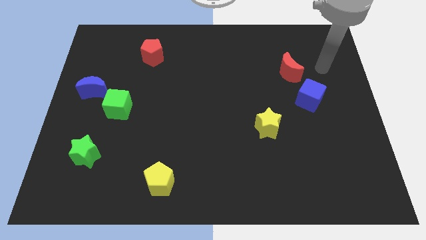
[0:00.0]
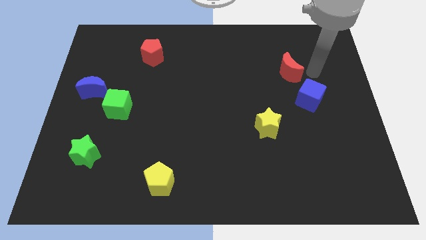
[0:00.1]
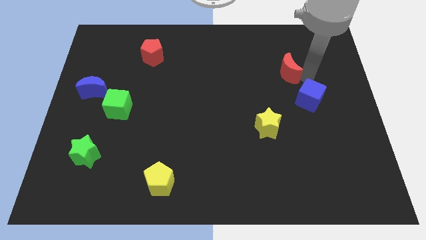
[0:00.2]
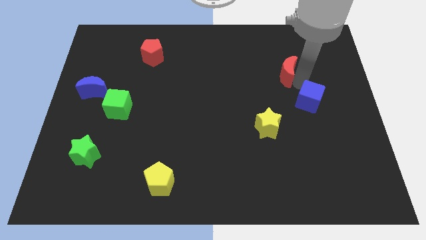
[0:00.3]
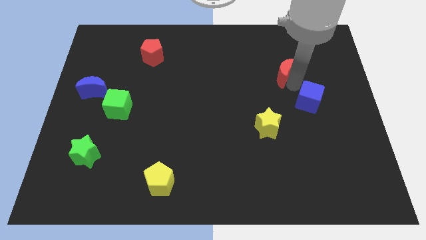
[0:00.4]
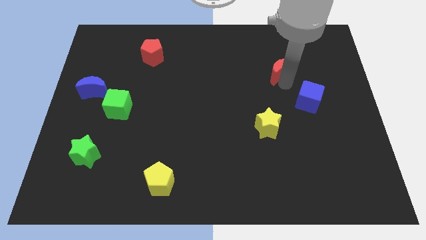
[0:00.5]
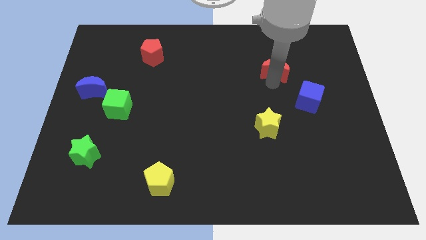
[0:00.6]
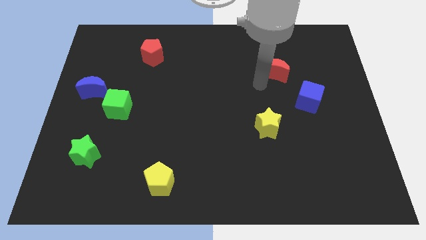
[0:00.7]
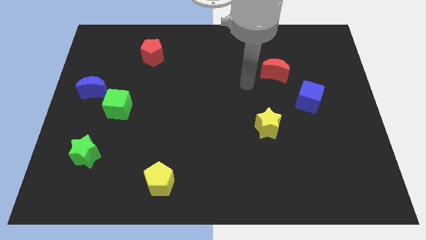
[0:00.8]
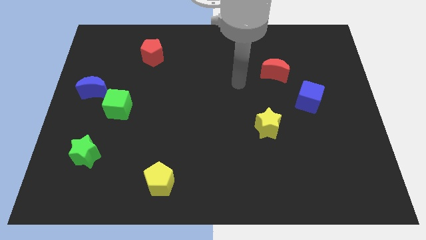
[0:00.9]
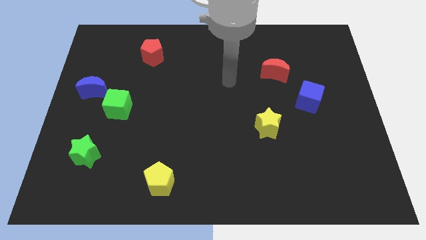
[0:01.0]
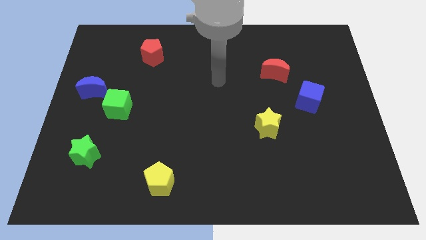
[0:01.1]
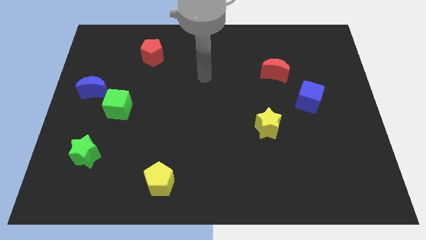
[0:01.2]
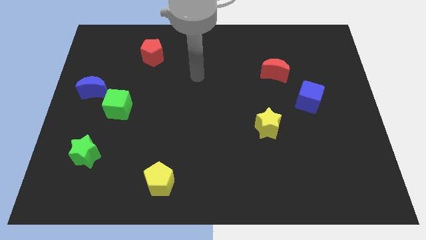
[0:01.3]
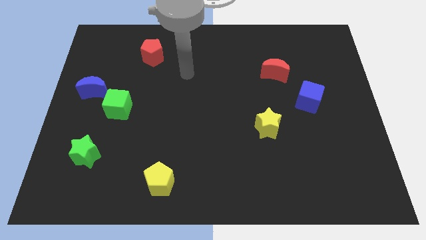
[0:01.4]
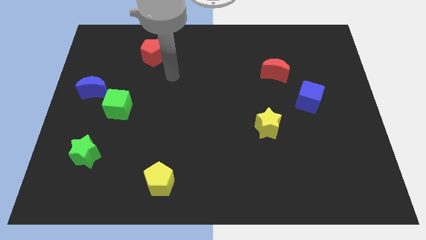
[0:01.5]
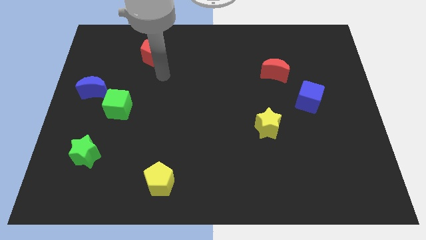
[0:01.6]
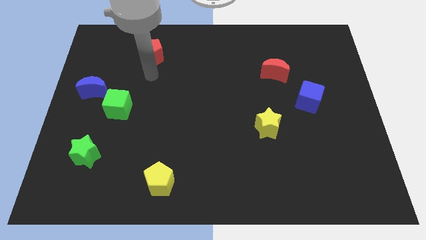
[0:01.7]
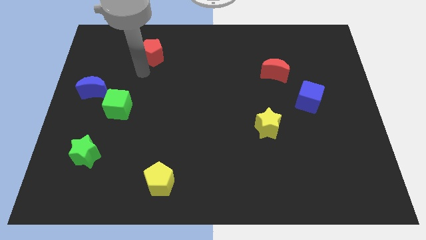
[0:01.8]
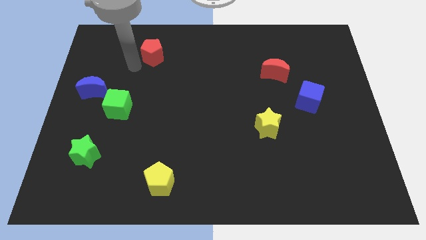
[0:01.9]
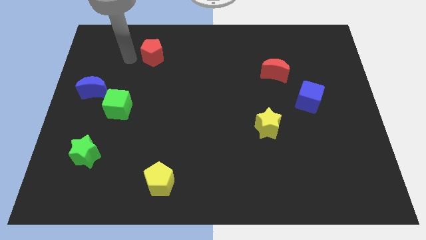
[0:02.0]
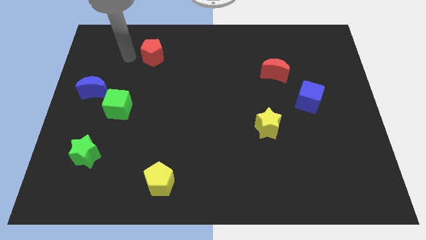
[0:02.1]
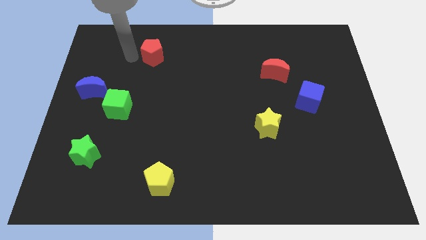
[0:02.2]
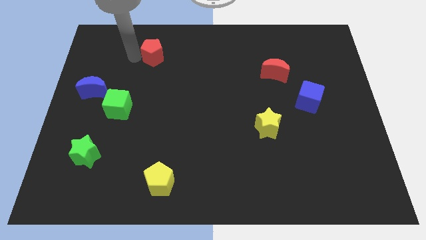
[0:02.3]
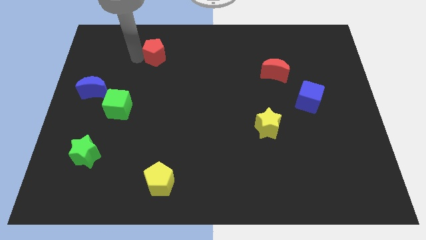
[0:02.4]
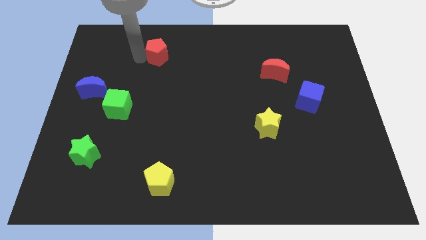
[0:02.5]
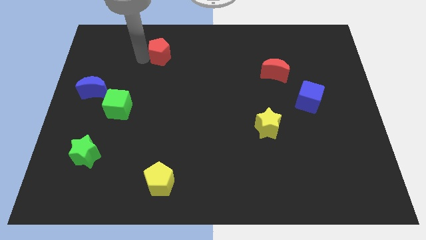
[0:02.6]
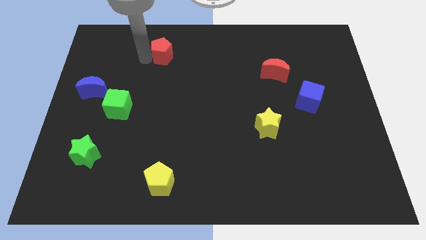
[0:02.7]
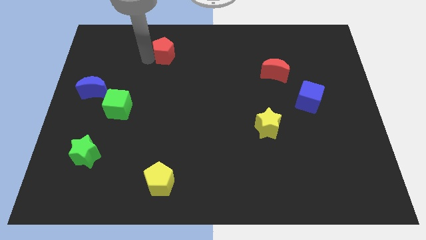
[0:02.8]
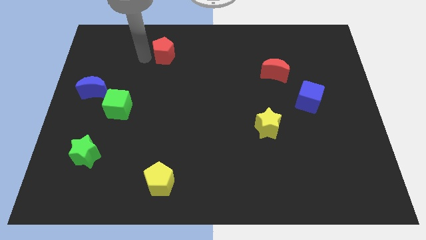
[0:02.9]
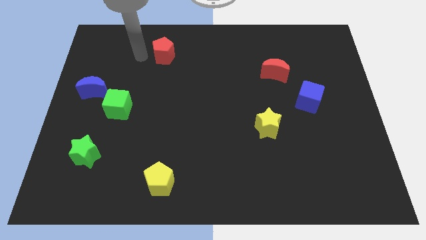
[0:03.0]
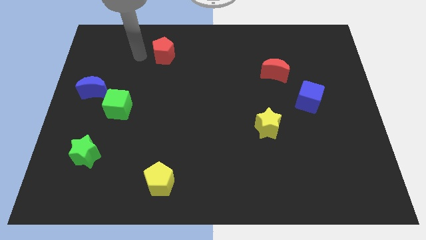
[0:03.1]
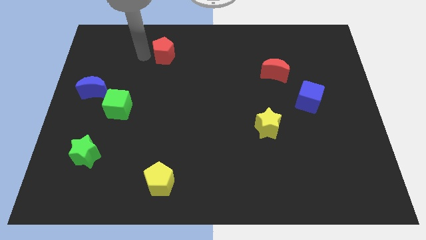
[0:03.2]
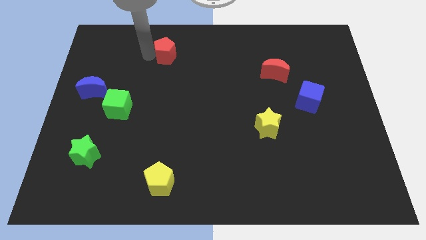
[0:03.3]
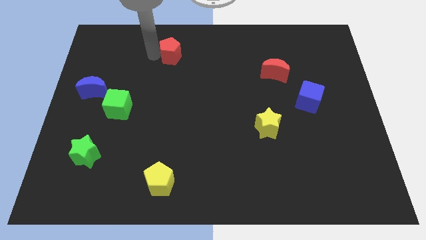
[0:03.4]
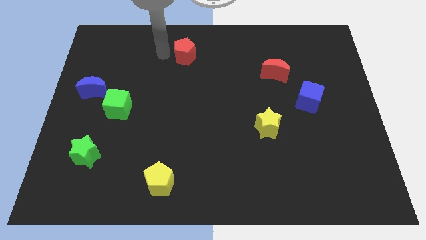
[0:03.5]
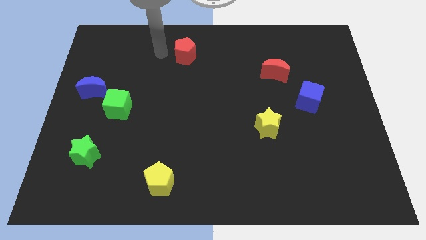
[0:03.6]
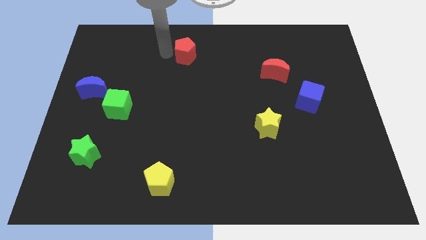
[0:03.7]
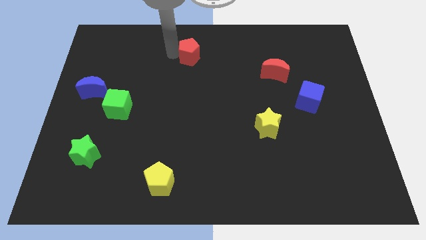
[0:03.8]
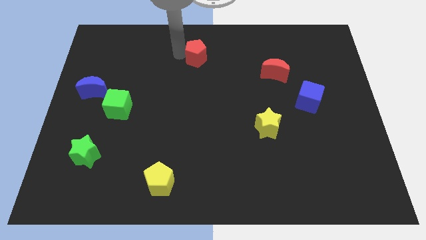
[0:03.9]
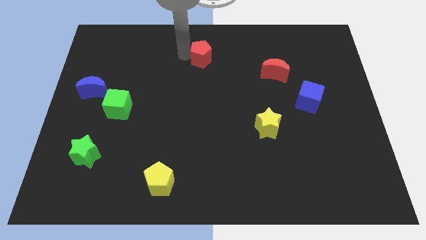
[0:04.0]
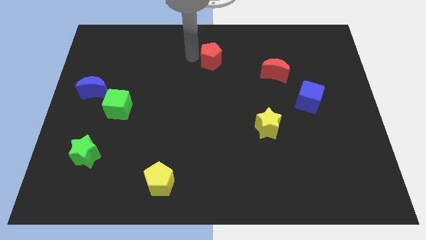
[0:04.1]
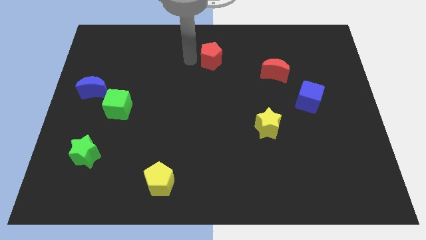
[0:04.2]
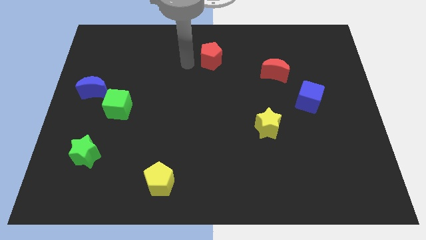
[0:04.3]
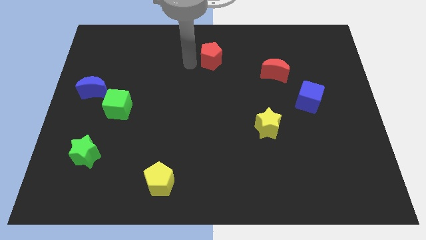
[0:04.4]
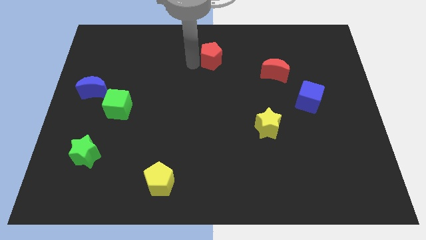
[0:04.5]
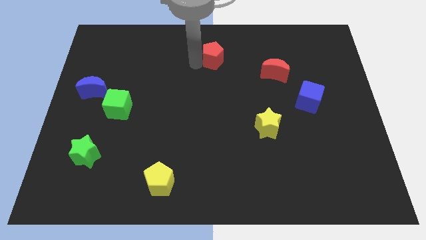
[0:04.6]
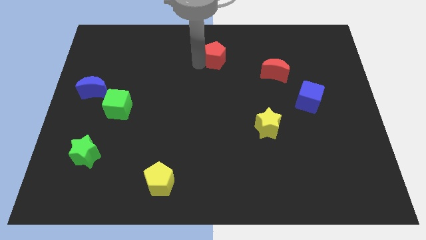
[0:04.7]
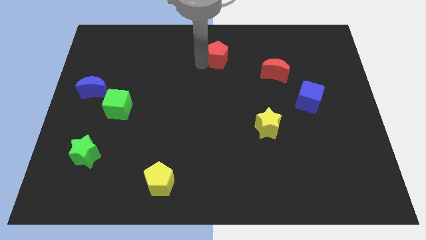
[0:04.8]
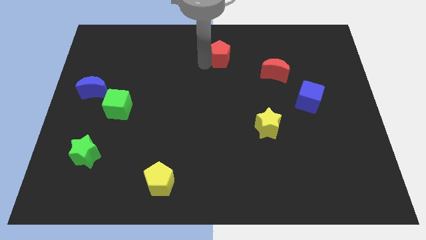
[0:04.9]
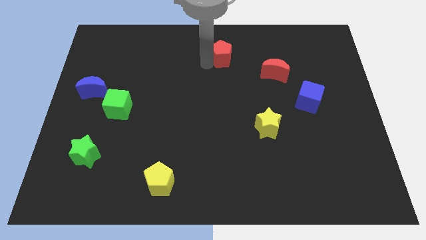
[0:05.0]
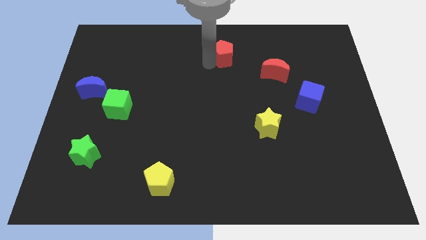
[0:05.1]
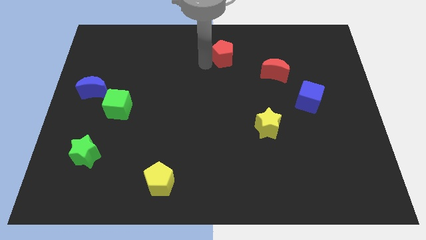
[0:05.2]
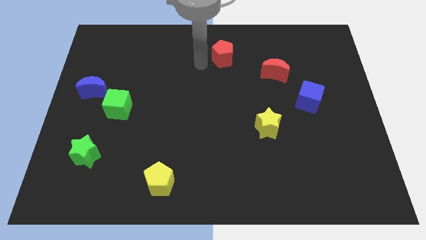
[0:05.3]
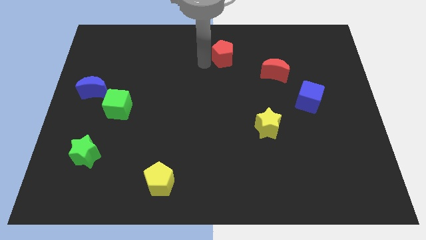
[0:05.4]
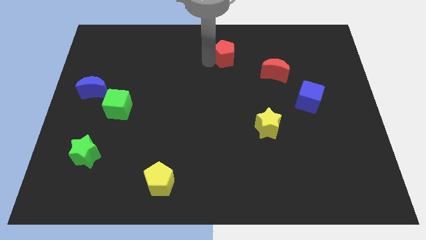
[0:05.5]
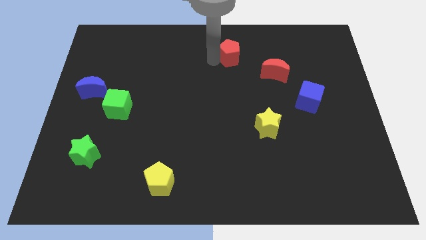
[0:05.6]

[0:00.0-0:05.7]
slide the red pentagon to the right

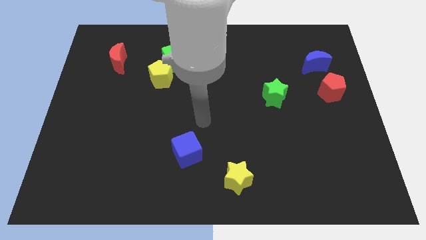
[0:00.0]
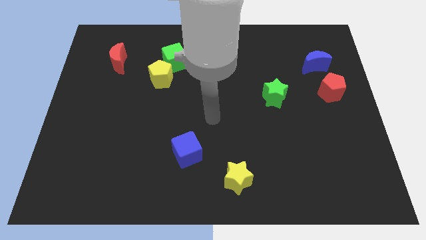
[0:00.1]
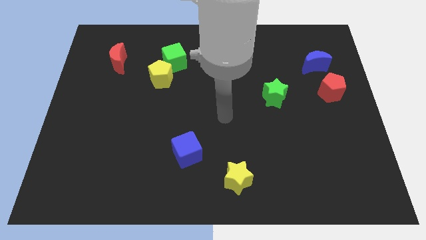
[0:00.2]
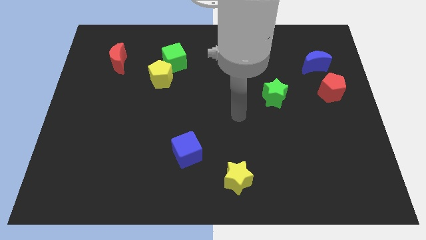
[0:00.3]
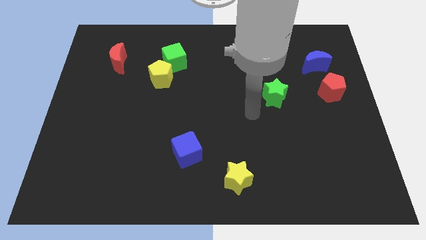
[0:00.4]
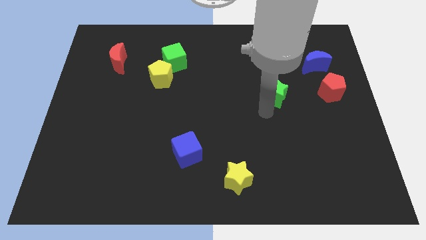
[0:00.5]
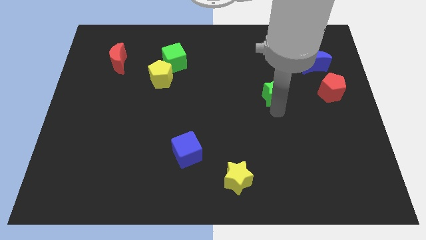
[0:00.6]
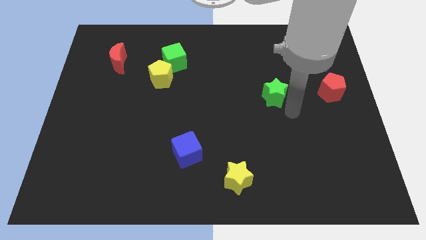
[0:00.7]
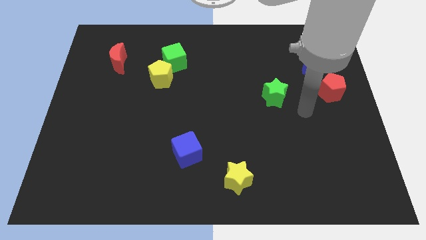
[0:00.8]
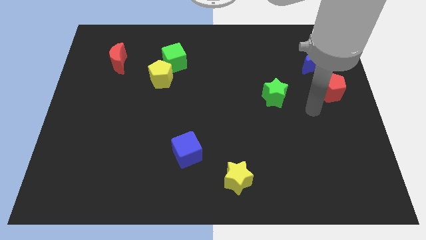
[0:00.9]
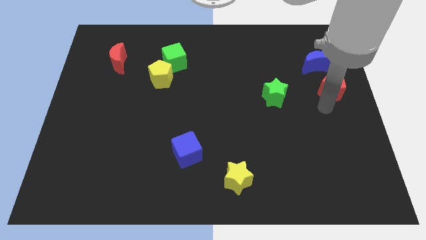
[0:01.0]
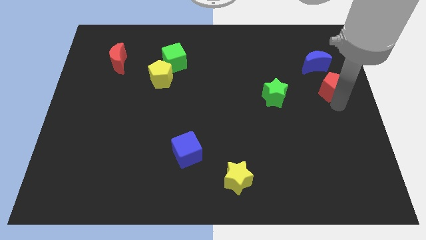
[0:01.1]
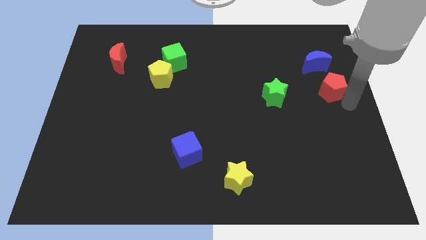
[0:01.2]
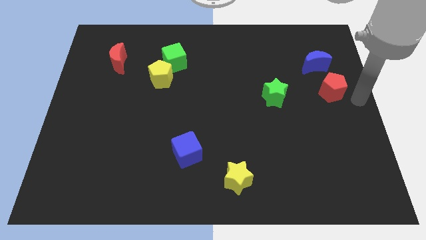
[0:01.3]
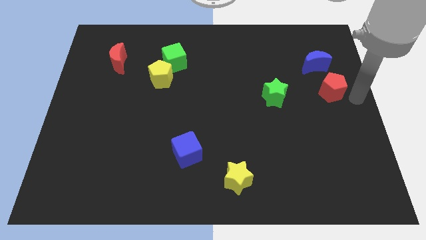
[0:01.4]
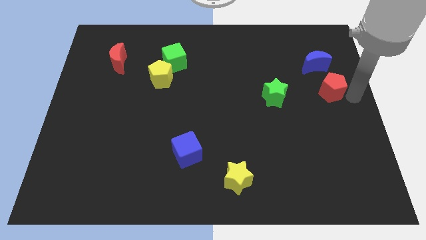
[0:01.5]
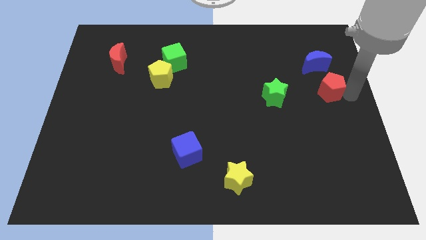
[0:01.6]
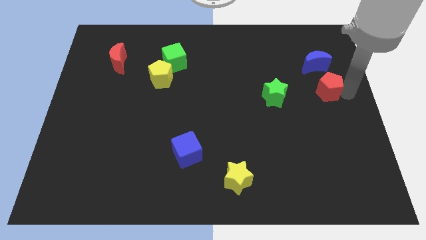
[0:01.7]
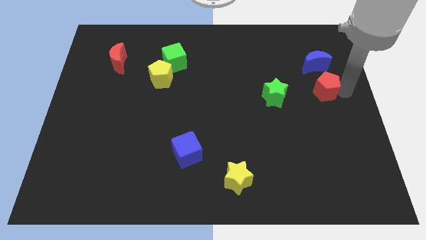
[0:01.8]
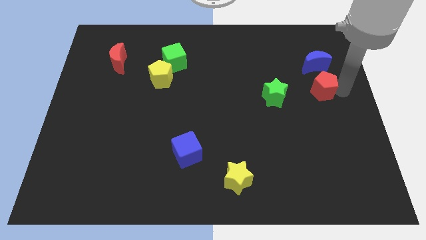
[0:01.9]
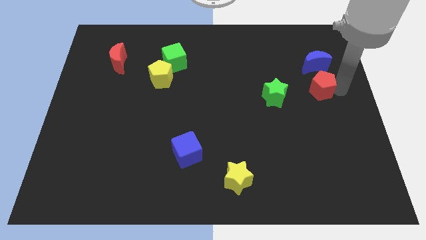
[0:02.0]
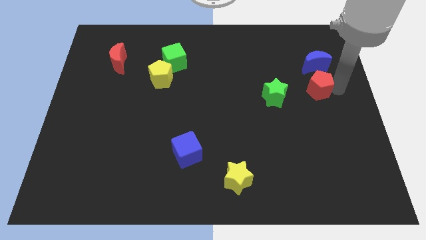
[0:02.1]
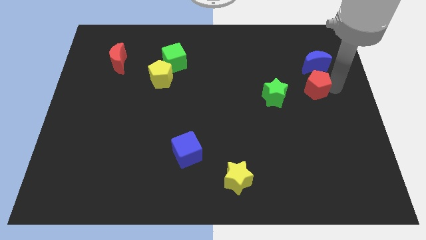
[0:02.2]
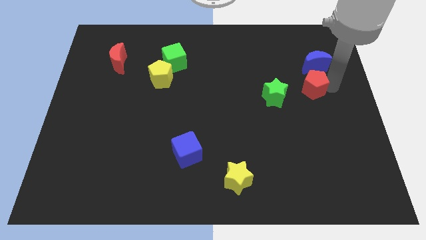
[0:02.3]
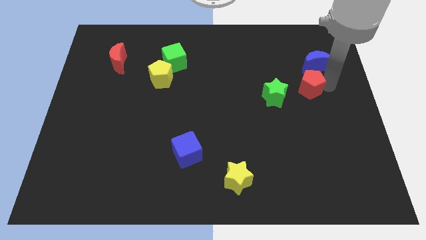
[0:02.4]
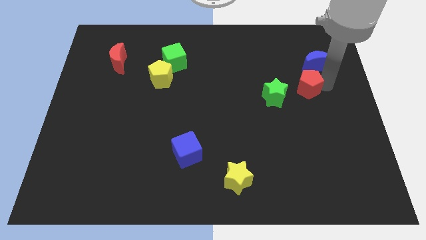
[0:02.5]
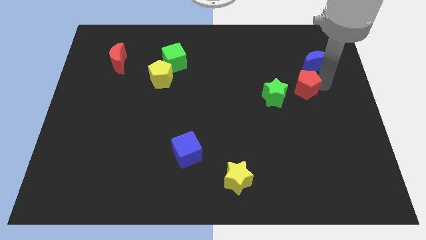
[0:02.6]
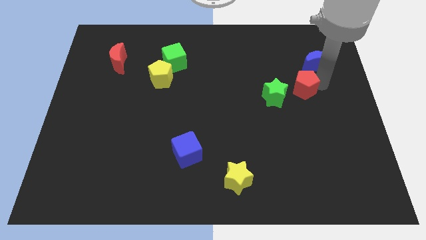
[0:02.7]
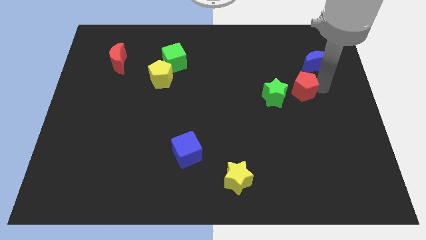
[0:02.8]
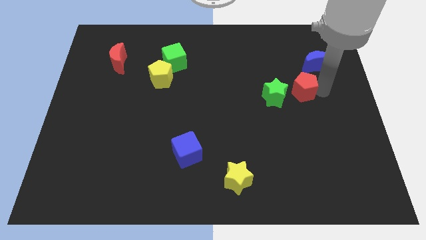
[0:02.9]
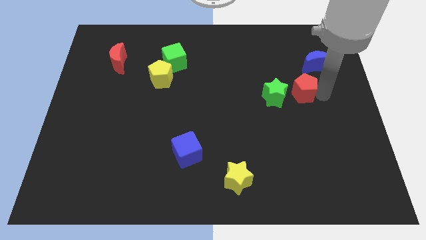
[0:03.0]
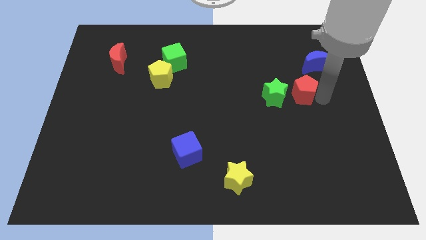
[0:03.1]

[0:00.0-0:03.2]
move the red pentagon a little to the left
